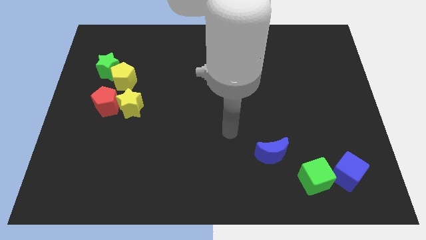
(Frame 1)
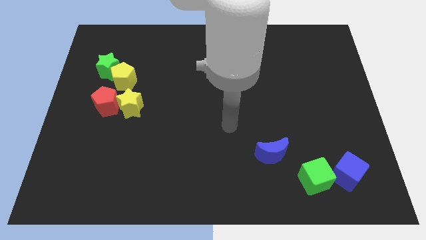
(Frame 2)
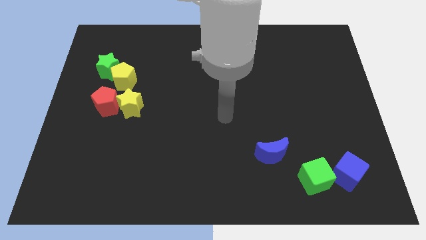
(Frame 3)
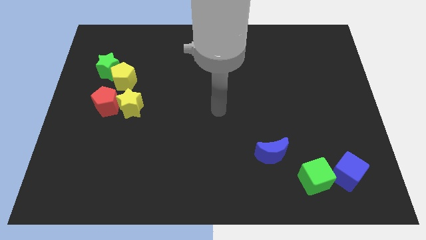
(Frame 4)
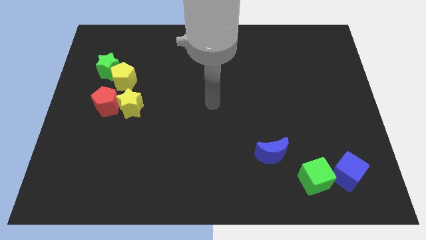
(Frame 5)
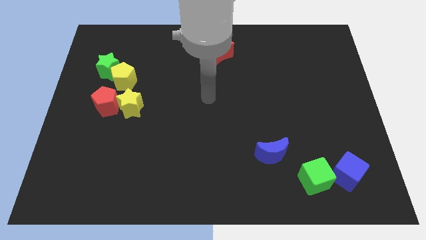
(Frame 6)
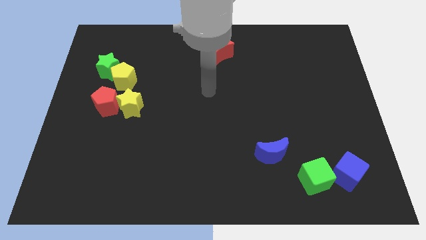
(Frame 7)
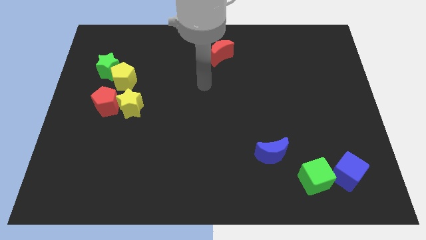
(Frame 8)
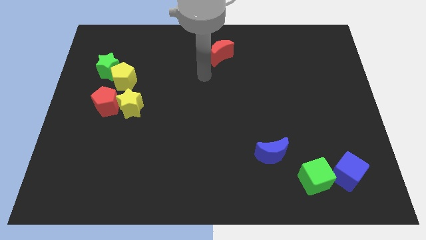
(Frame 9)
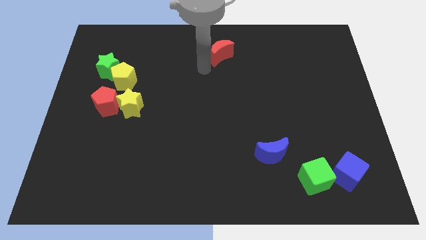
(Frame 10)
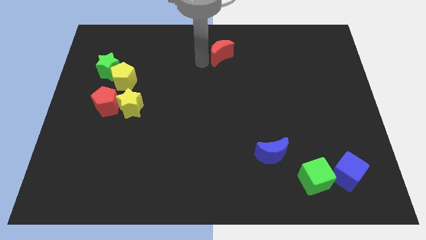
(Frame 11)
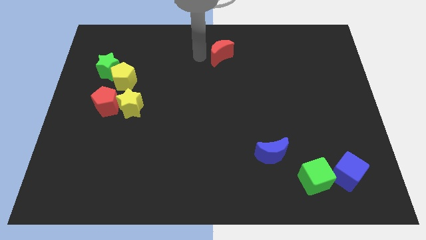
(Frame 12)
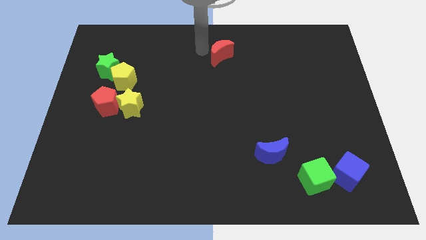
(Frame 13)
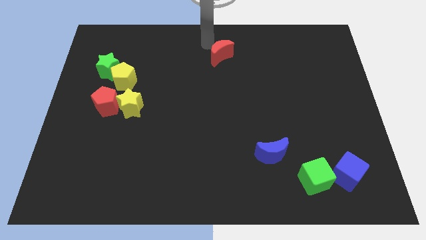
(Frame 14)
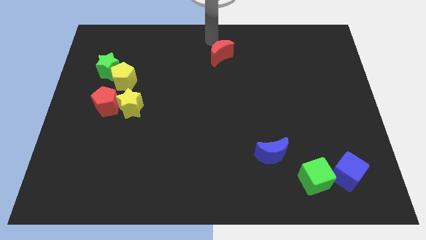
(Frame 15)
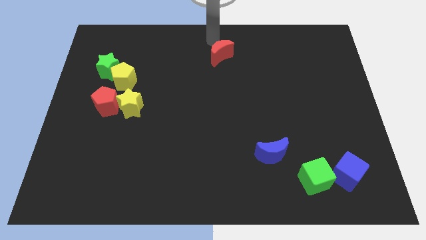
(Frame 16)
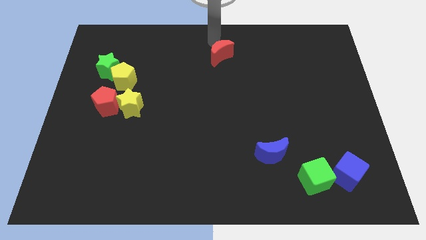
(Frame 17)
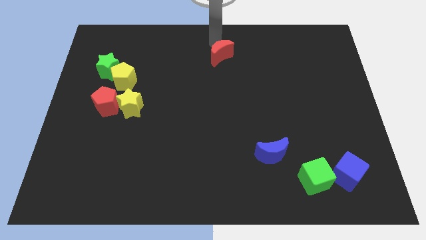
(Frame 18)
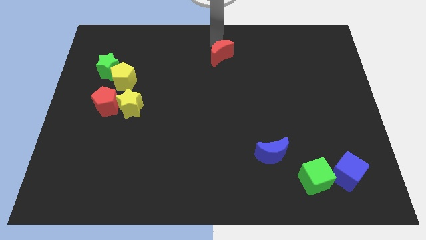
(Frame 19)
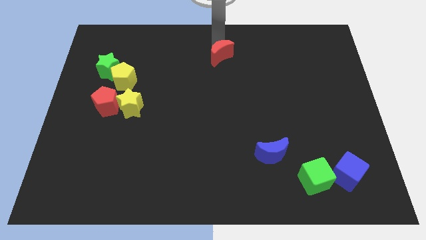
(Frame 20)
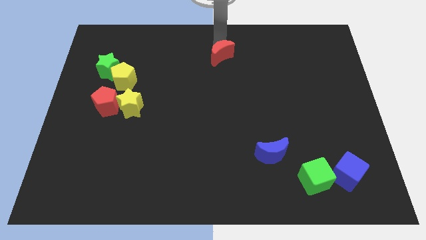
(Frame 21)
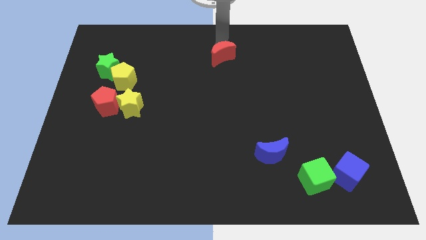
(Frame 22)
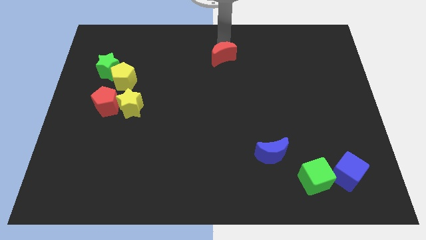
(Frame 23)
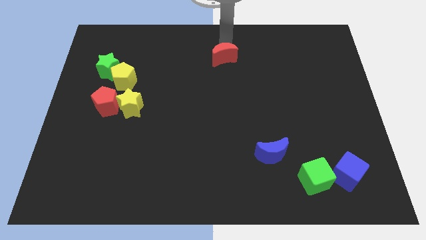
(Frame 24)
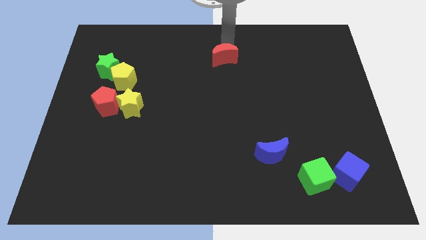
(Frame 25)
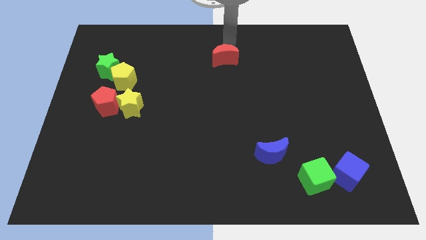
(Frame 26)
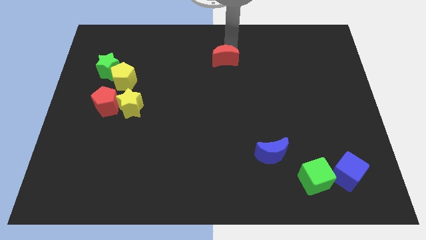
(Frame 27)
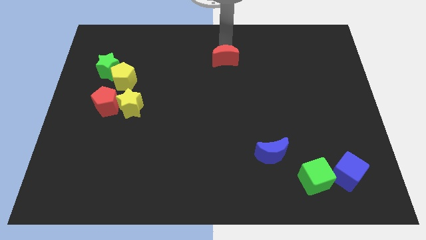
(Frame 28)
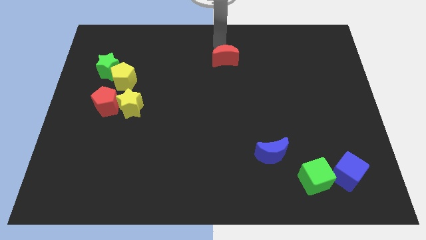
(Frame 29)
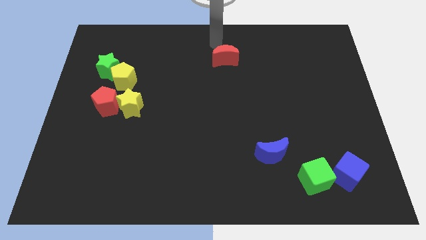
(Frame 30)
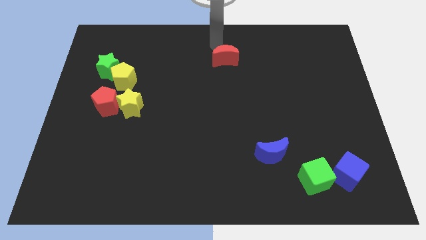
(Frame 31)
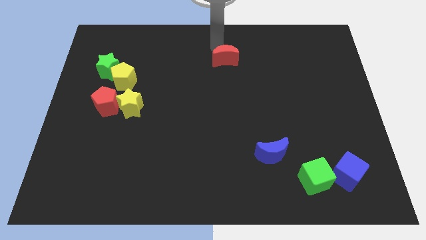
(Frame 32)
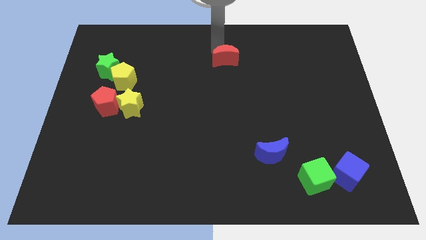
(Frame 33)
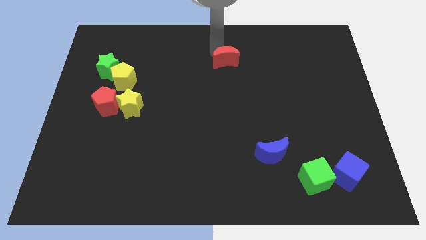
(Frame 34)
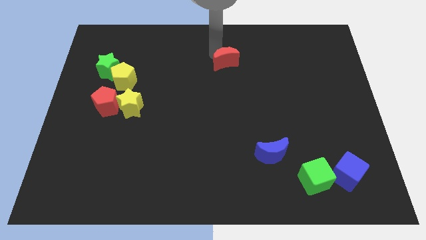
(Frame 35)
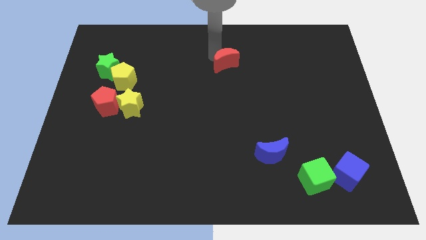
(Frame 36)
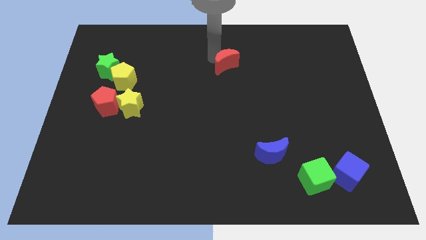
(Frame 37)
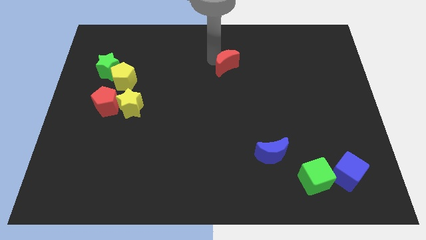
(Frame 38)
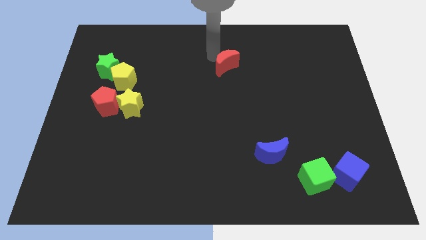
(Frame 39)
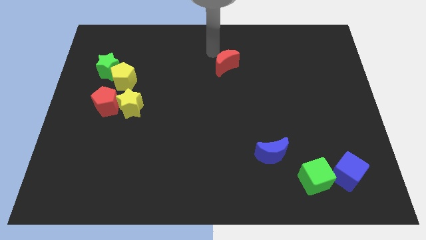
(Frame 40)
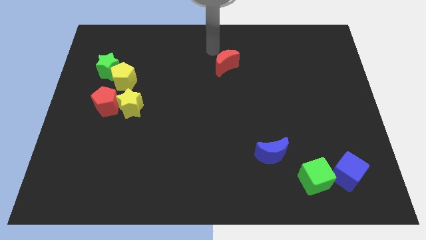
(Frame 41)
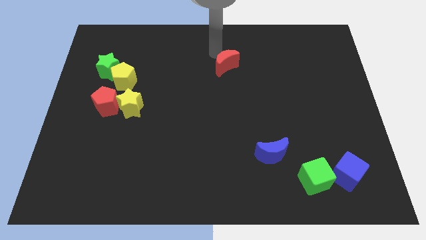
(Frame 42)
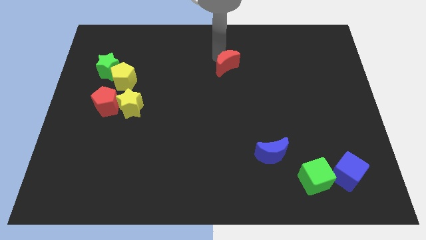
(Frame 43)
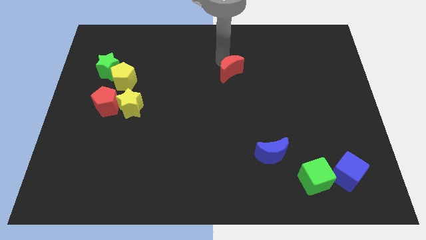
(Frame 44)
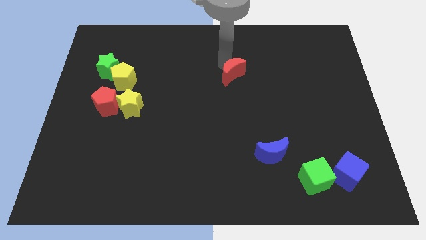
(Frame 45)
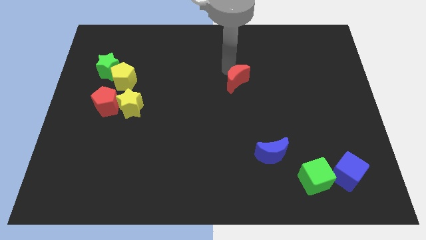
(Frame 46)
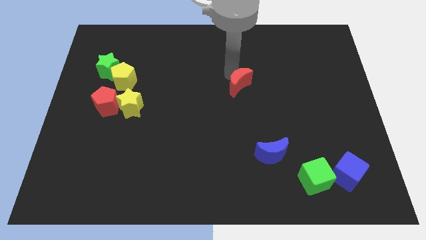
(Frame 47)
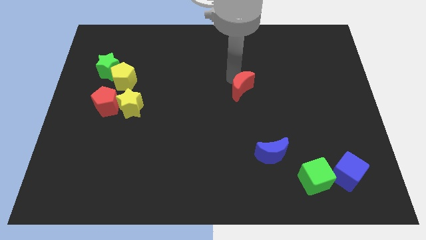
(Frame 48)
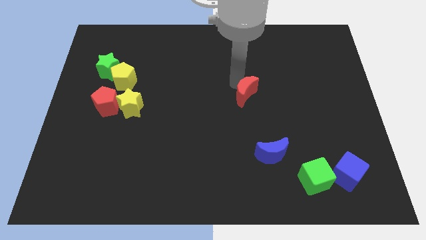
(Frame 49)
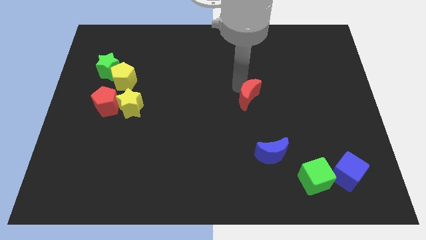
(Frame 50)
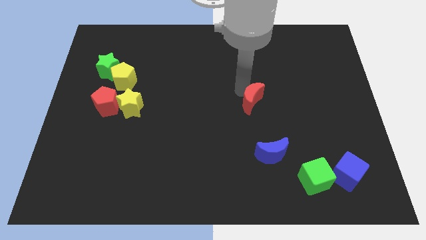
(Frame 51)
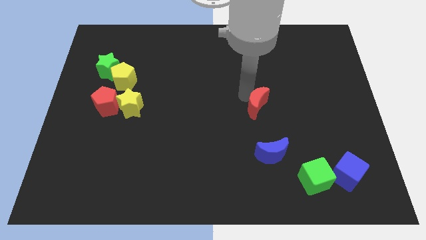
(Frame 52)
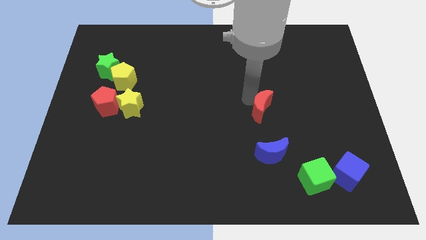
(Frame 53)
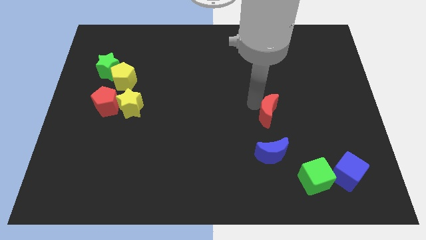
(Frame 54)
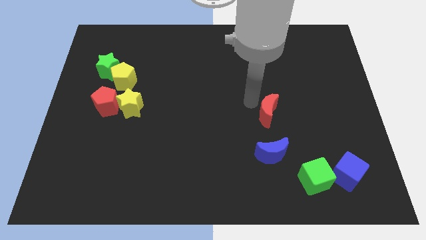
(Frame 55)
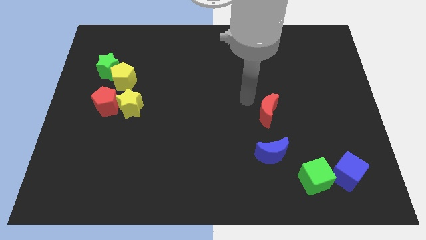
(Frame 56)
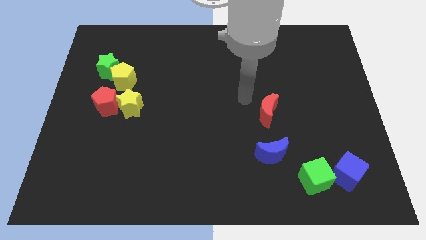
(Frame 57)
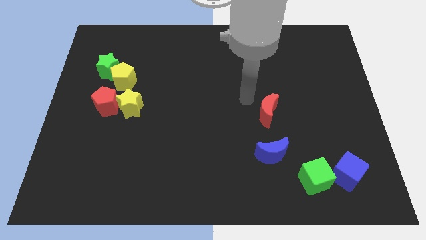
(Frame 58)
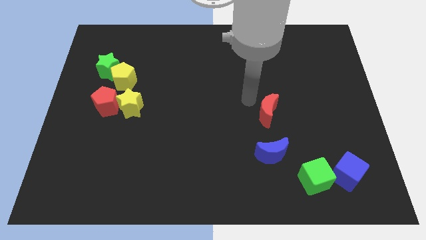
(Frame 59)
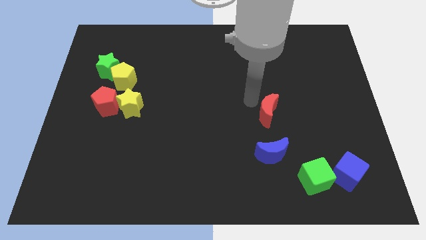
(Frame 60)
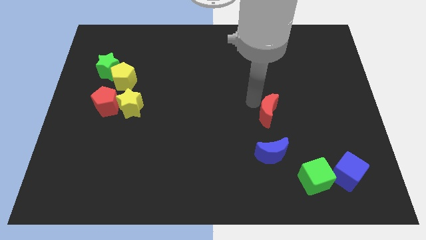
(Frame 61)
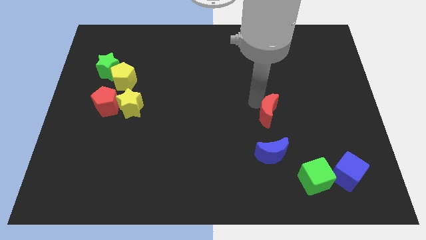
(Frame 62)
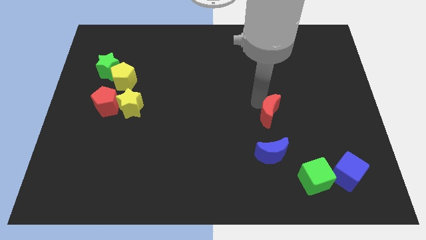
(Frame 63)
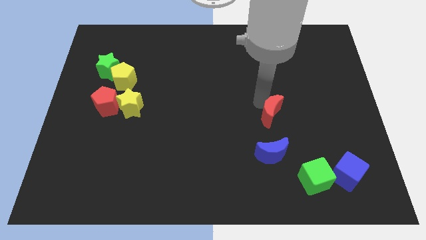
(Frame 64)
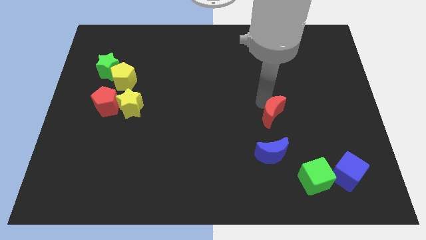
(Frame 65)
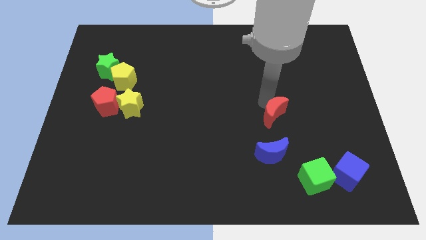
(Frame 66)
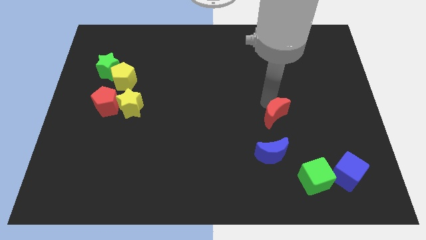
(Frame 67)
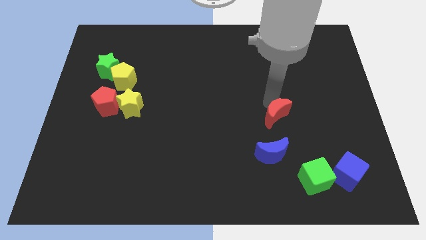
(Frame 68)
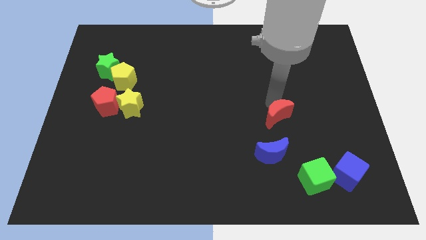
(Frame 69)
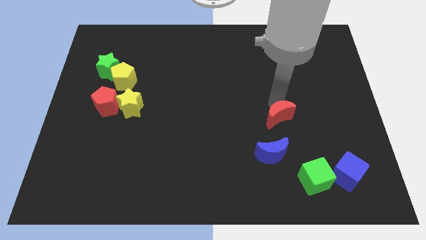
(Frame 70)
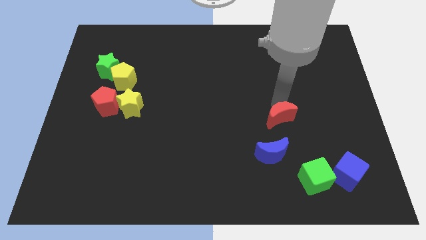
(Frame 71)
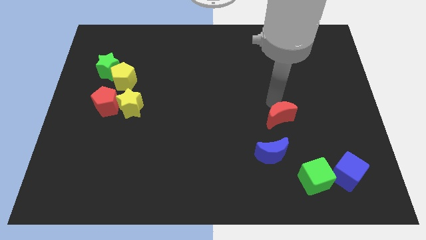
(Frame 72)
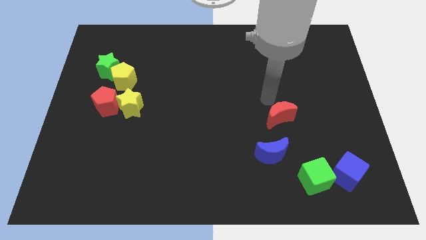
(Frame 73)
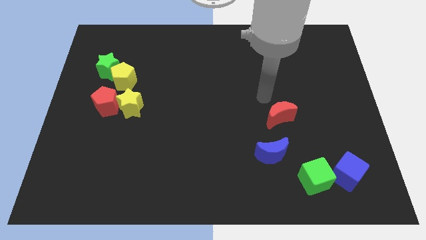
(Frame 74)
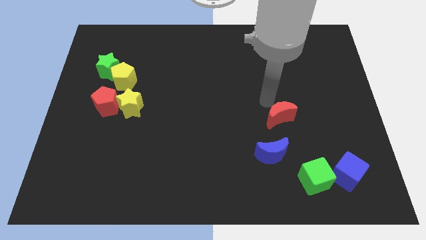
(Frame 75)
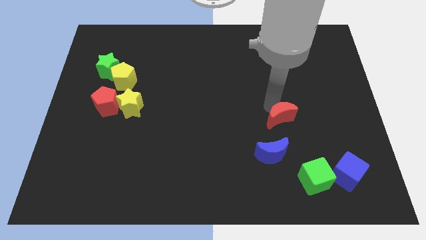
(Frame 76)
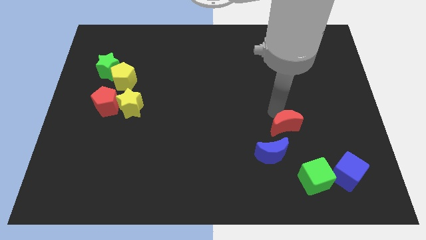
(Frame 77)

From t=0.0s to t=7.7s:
put the red moon to the top right side of the blue moon
